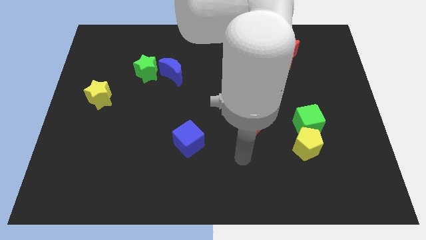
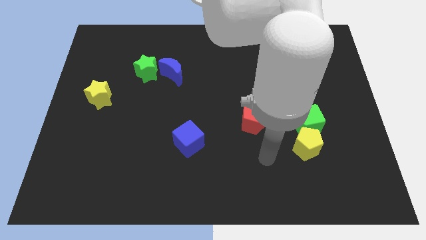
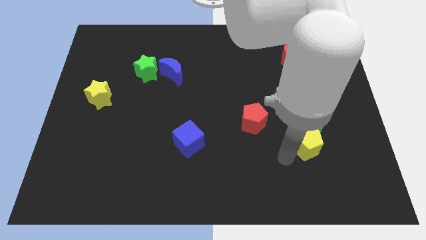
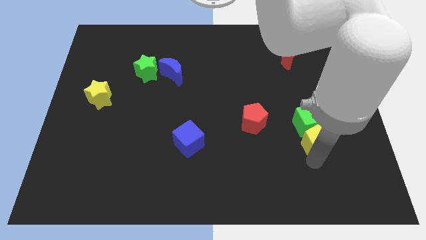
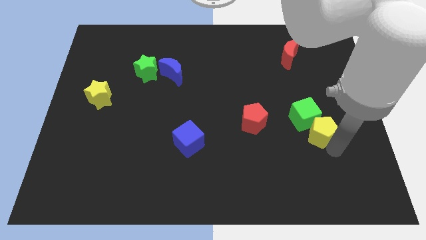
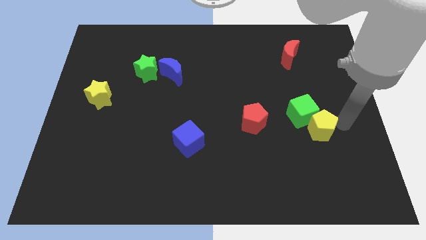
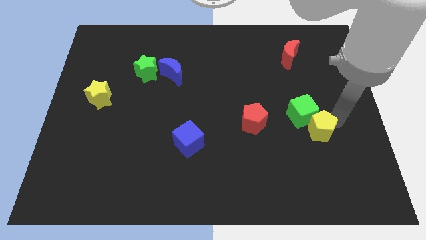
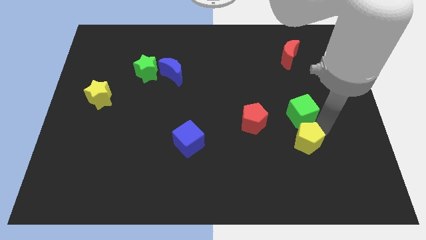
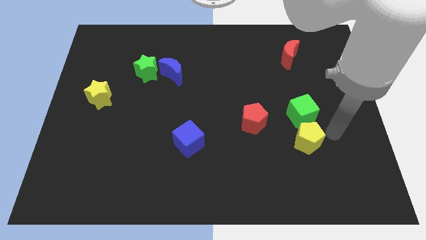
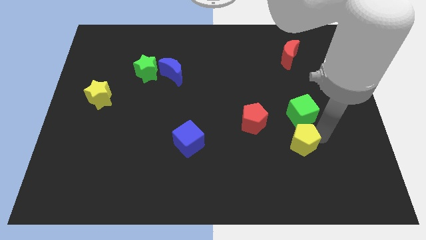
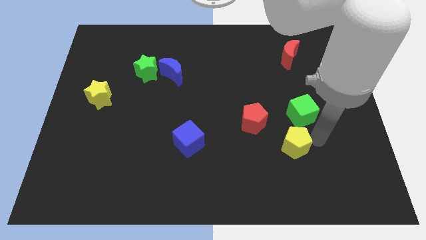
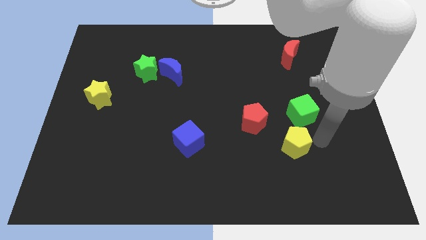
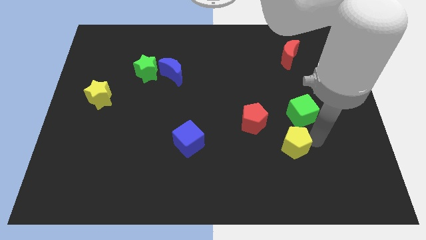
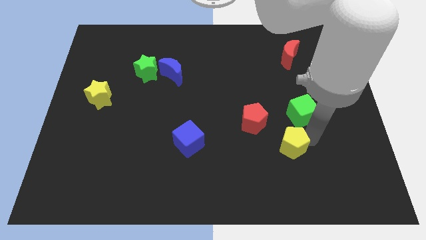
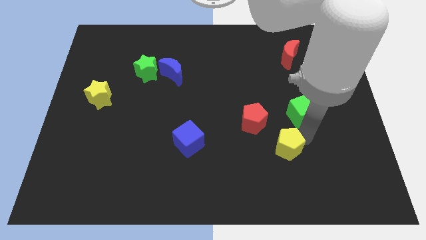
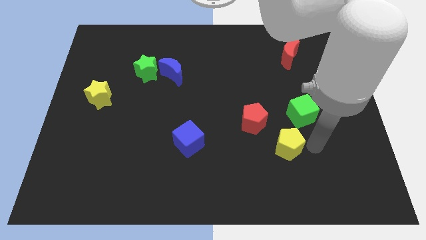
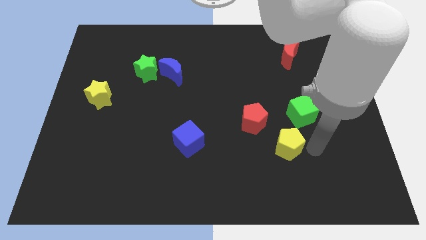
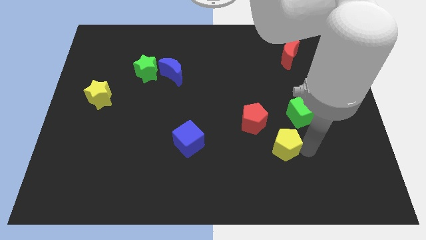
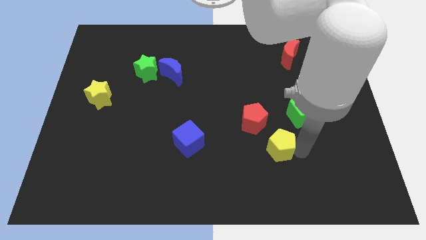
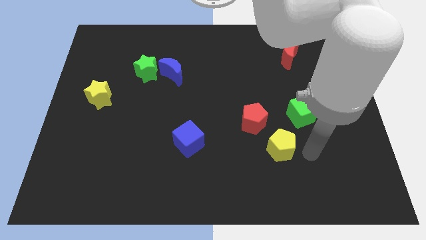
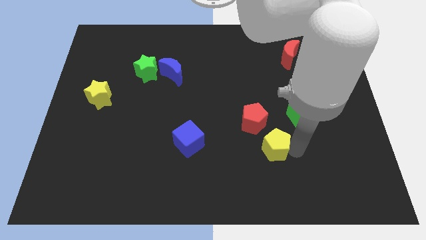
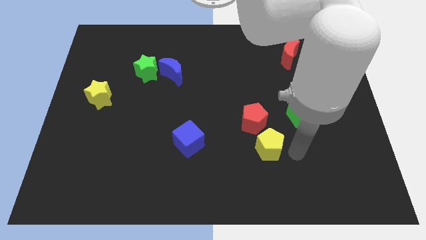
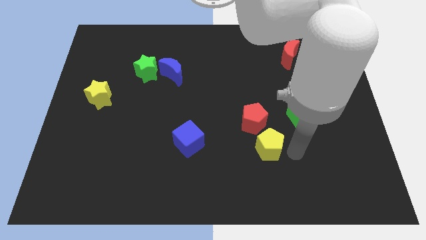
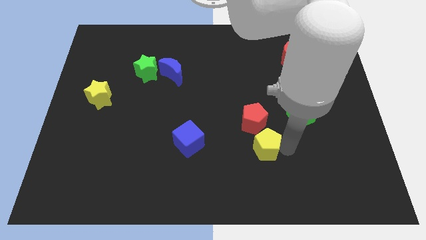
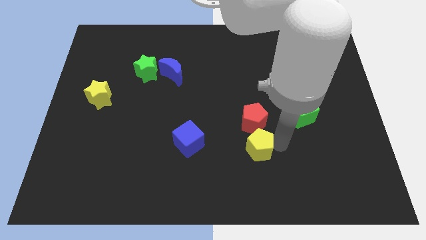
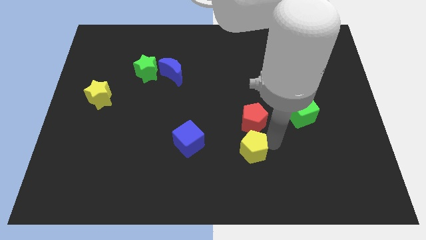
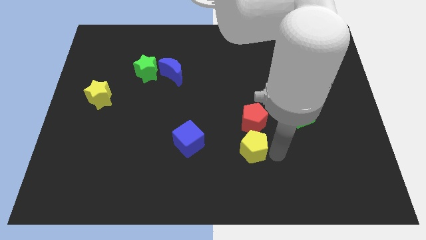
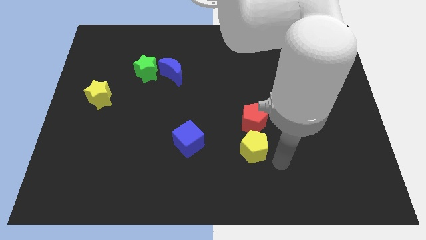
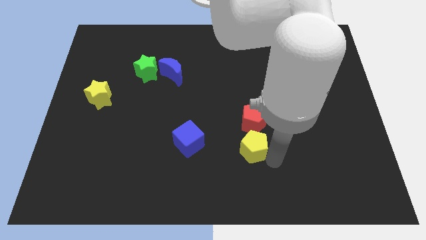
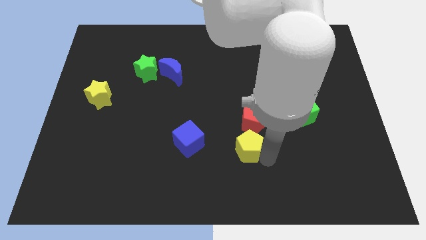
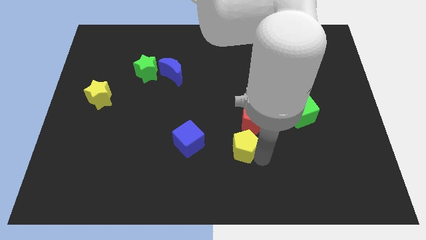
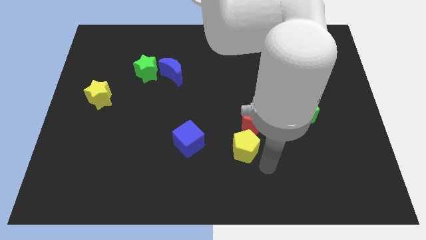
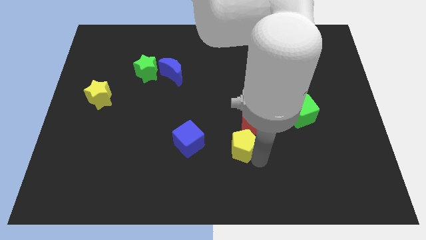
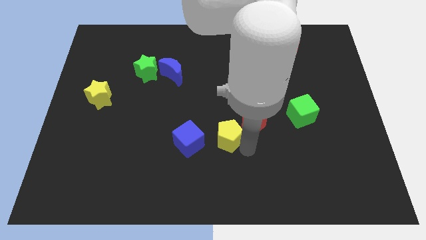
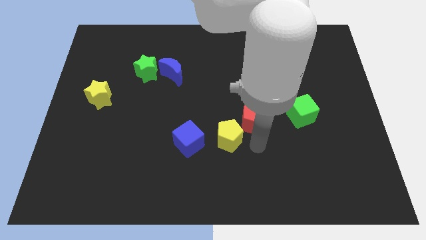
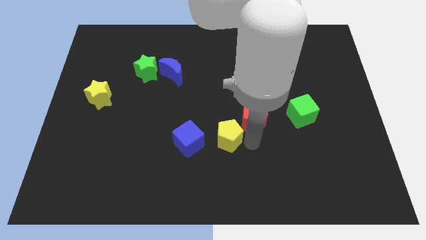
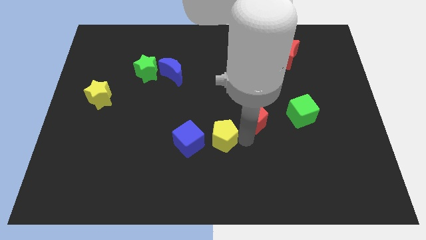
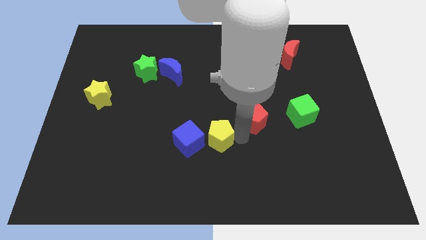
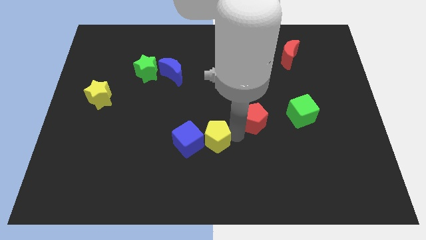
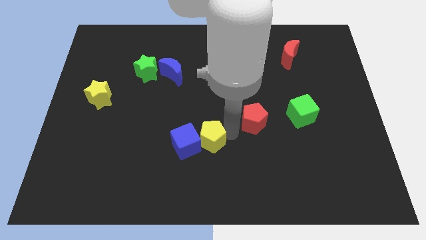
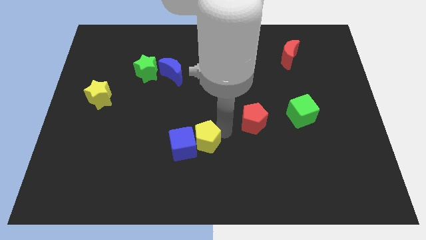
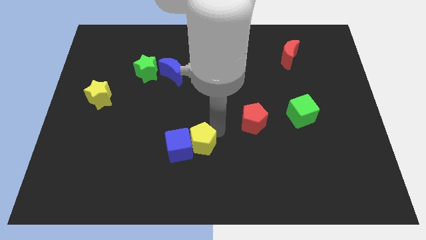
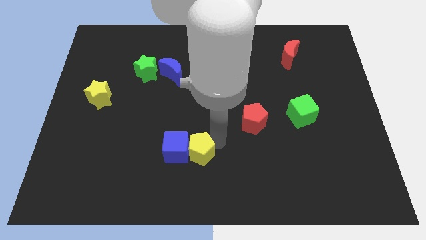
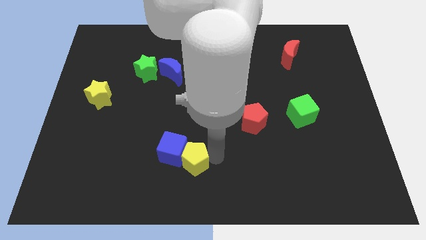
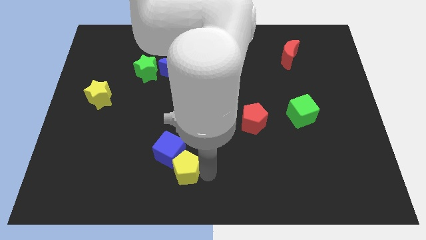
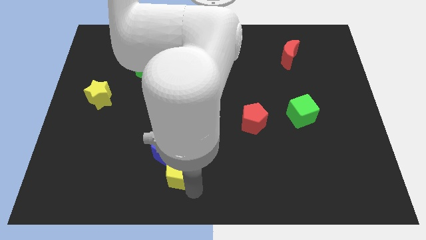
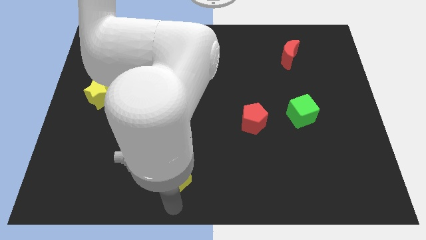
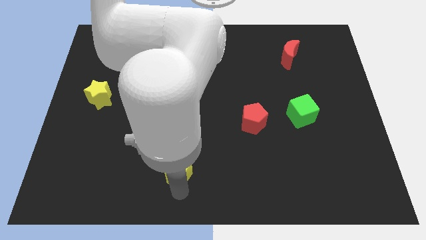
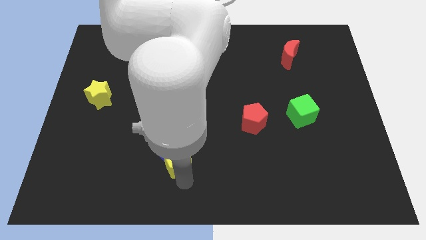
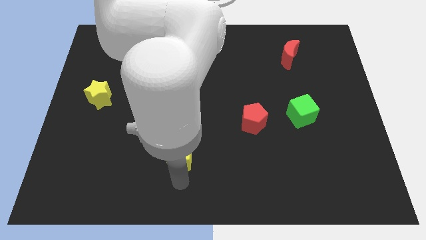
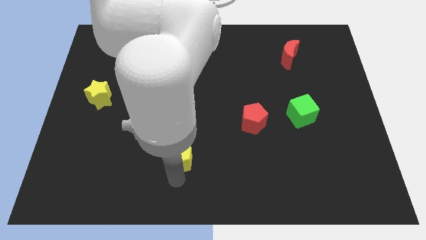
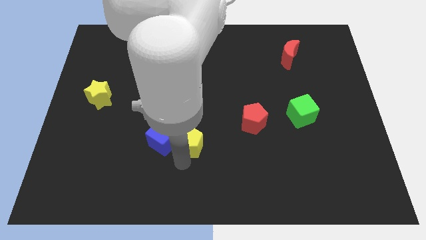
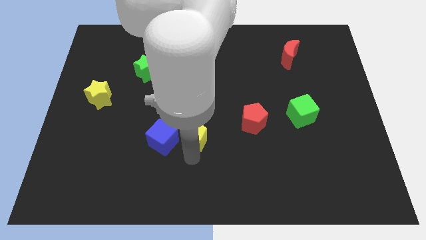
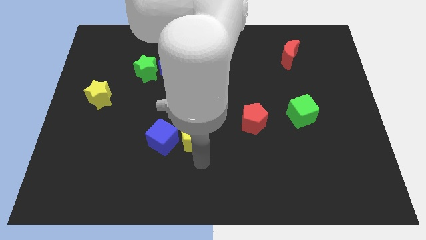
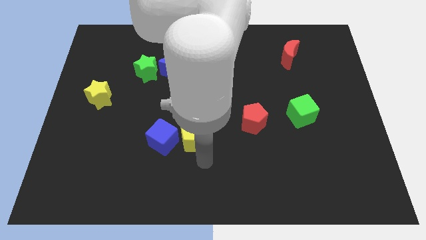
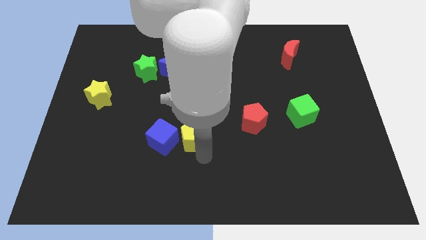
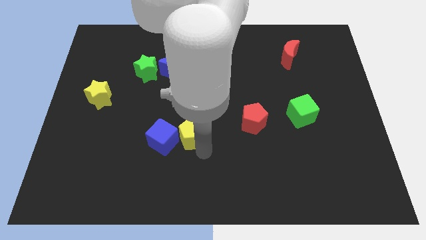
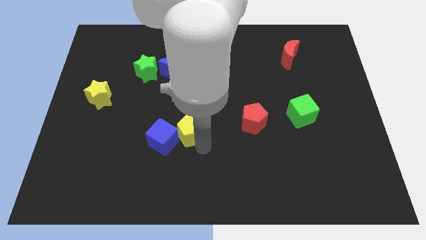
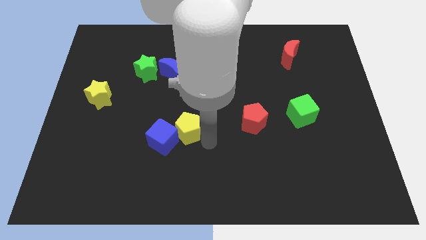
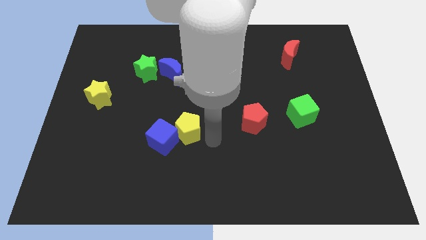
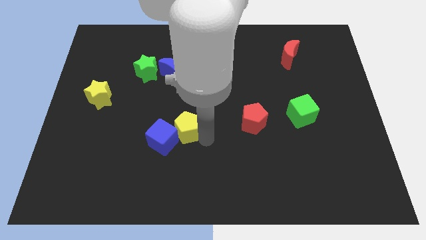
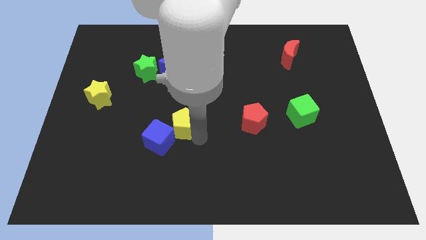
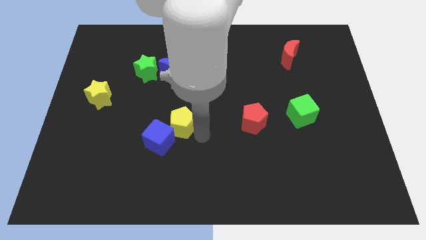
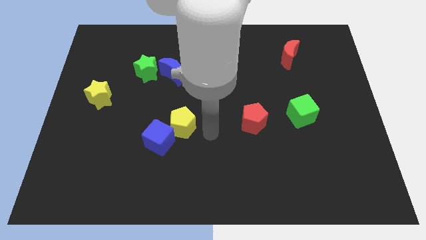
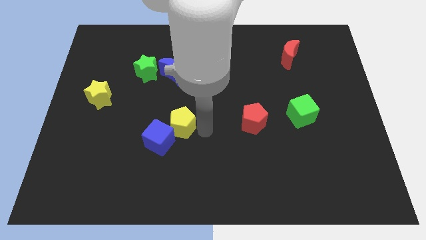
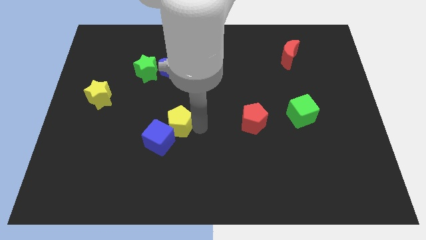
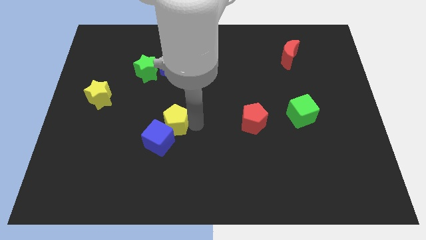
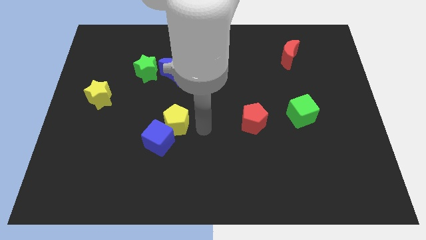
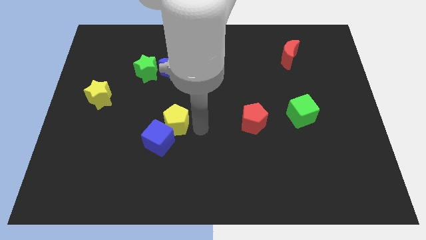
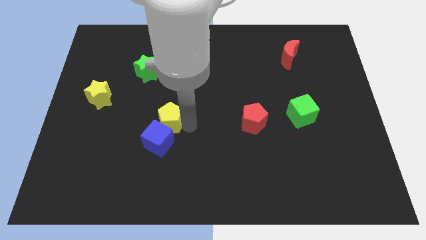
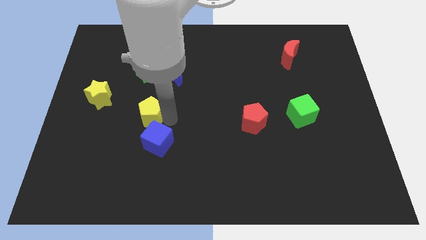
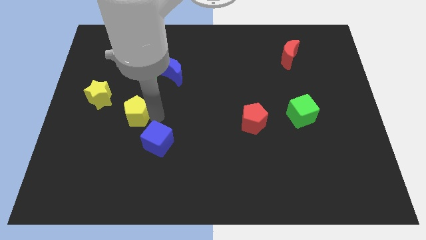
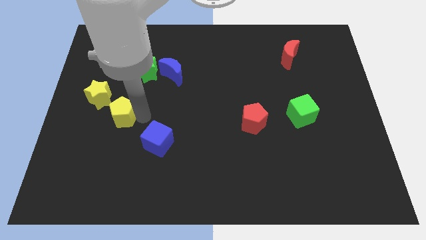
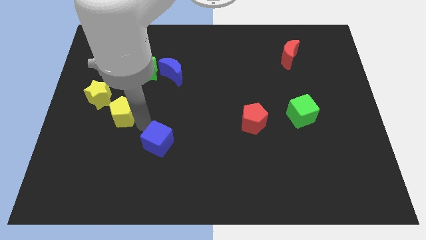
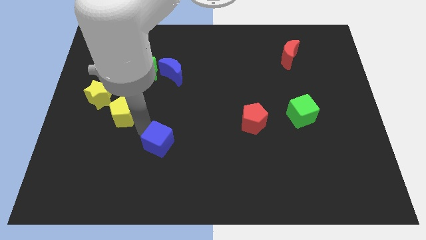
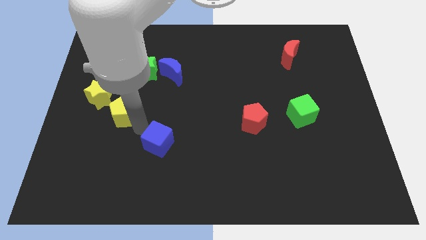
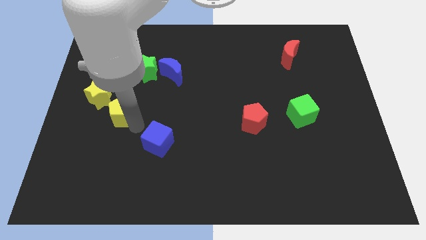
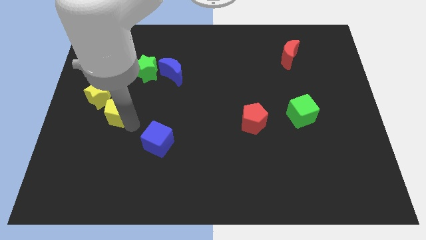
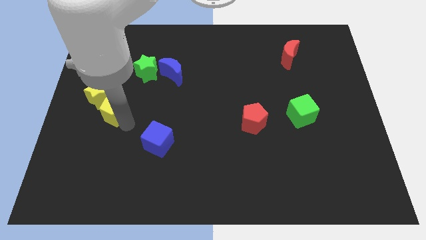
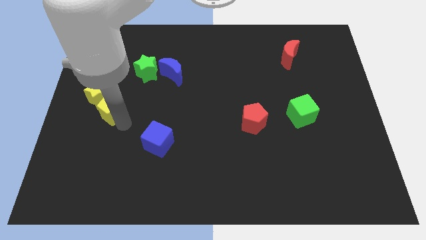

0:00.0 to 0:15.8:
put the yellow pentagon close to the yellow star
